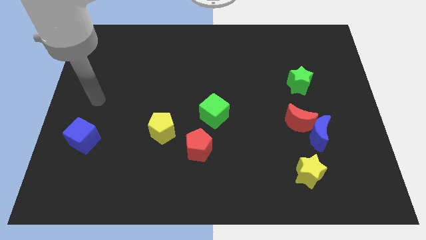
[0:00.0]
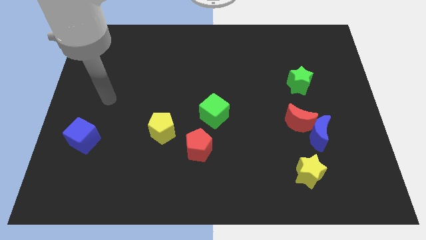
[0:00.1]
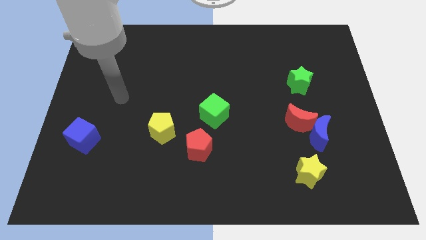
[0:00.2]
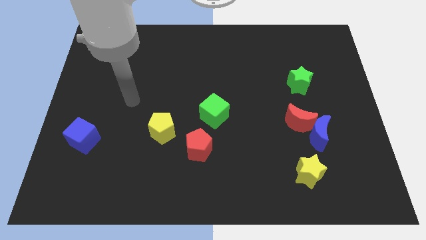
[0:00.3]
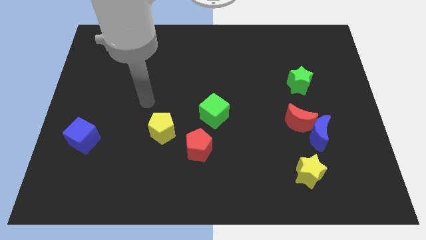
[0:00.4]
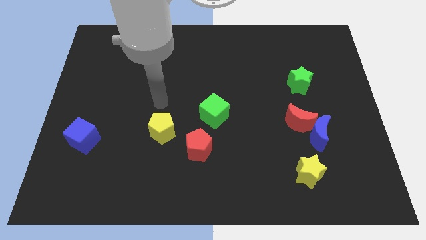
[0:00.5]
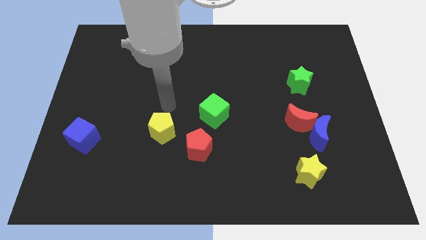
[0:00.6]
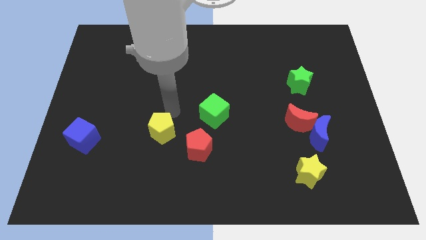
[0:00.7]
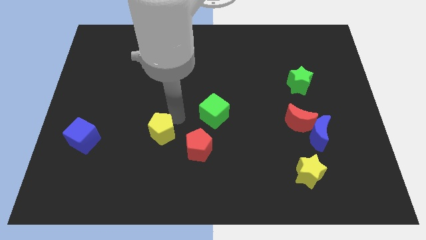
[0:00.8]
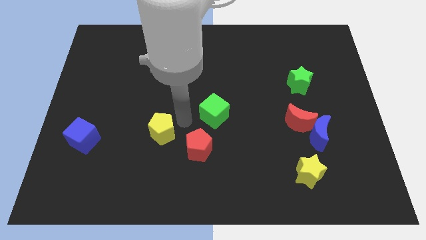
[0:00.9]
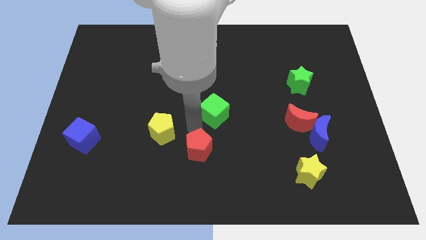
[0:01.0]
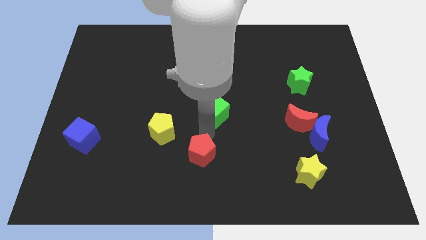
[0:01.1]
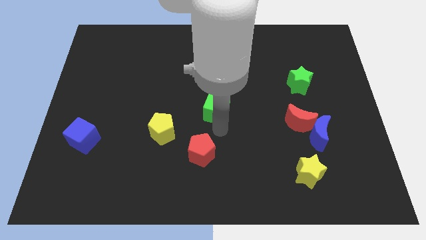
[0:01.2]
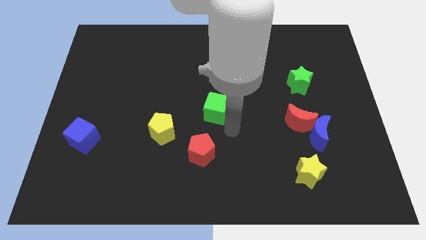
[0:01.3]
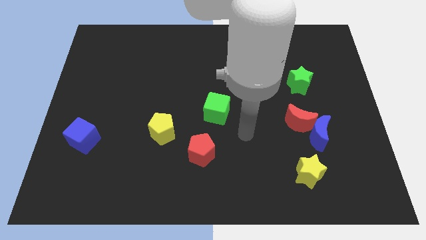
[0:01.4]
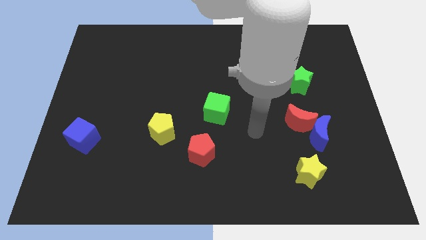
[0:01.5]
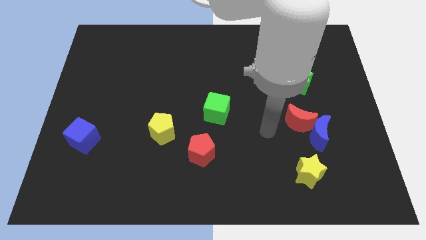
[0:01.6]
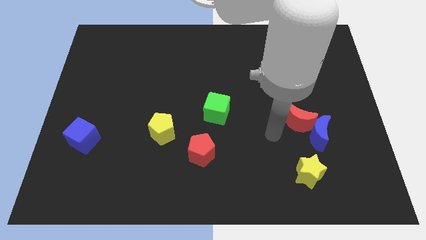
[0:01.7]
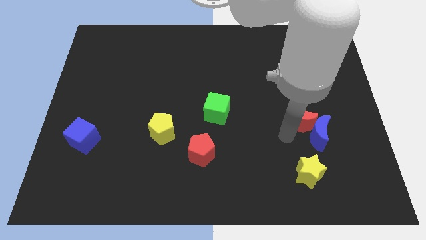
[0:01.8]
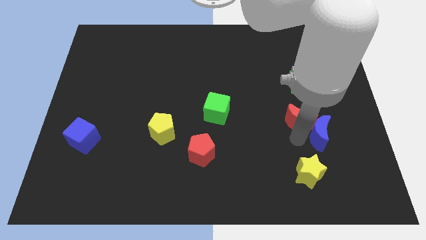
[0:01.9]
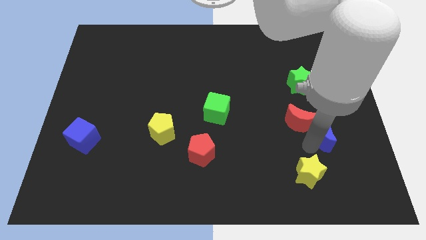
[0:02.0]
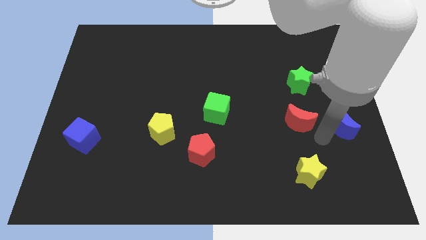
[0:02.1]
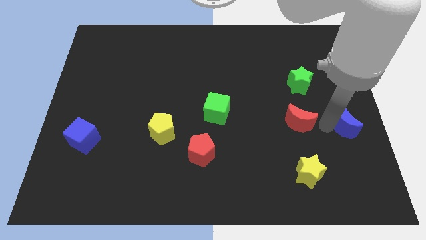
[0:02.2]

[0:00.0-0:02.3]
move the red moon away from the blue moon

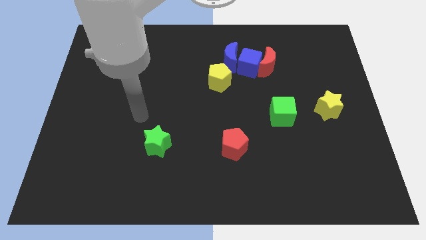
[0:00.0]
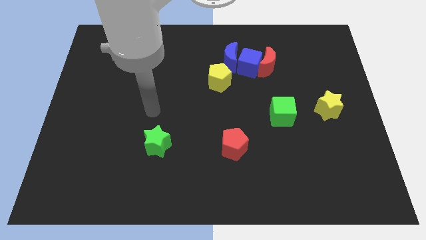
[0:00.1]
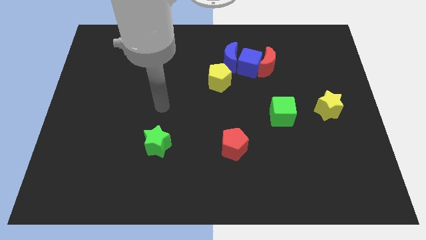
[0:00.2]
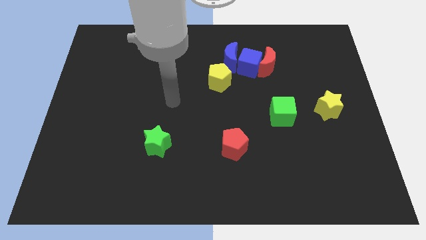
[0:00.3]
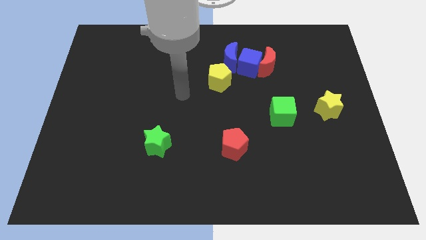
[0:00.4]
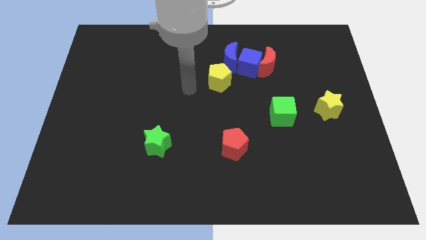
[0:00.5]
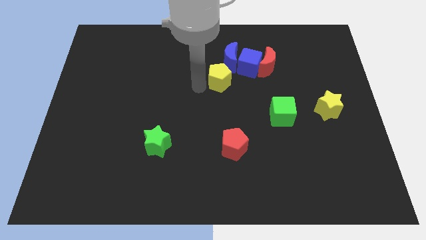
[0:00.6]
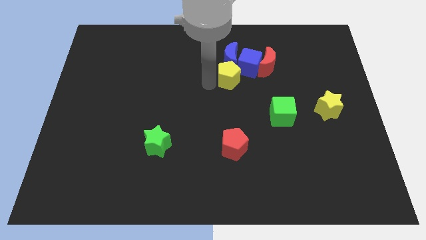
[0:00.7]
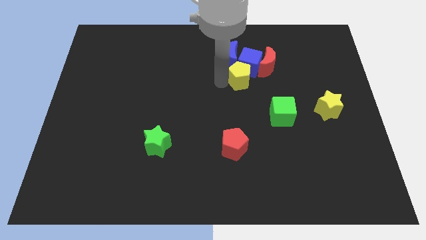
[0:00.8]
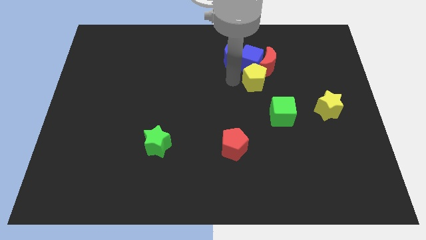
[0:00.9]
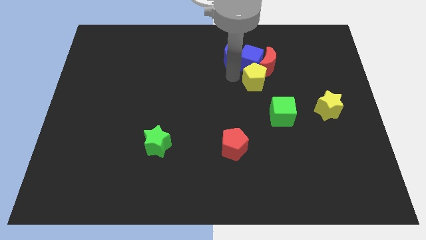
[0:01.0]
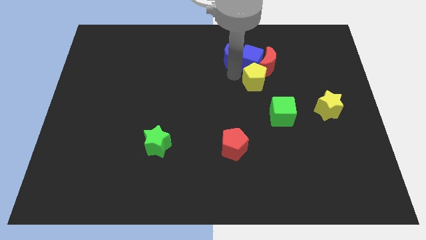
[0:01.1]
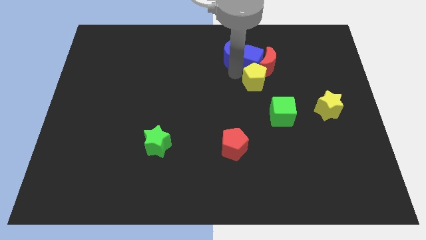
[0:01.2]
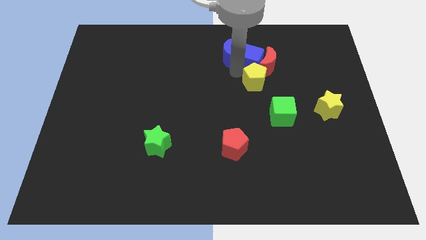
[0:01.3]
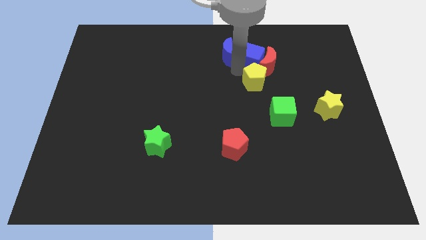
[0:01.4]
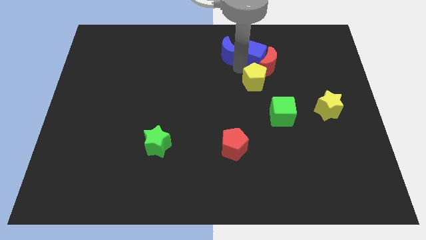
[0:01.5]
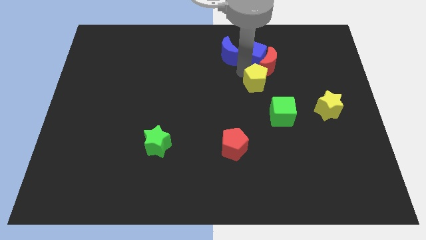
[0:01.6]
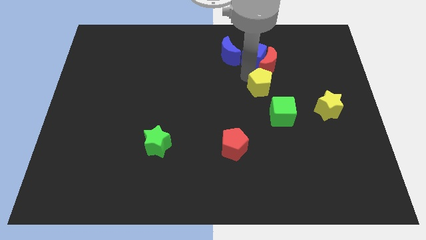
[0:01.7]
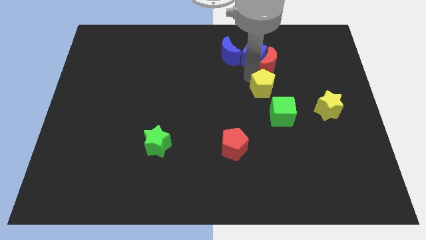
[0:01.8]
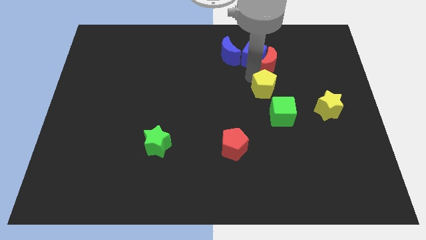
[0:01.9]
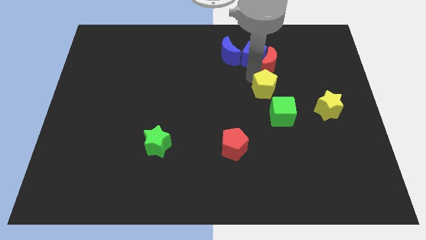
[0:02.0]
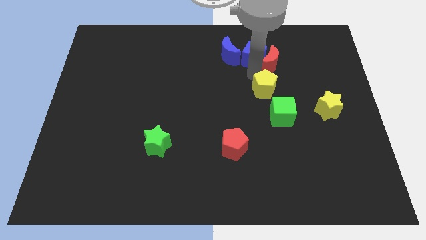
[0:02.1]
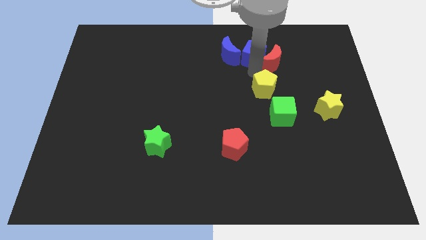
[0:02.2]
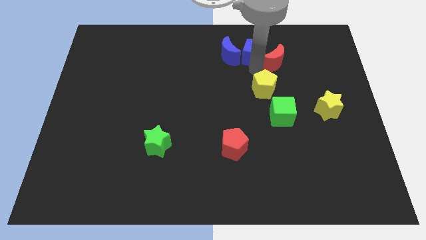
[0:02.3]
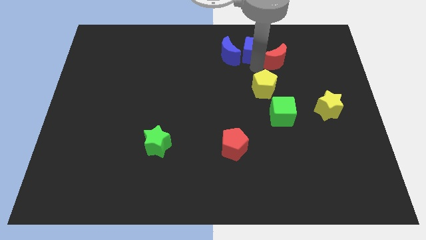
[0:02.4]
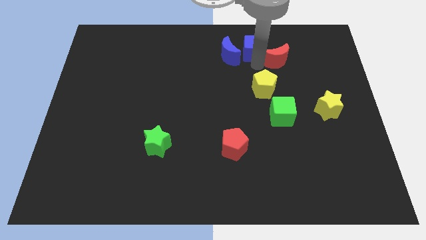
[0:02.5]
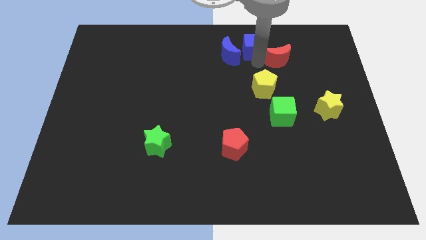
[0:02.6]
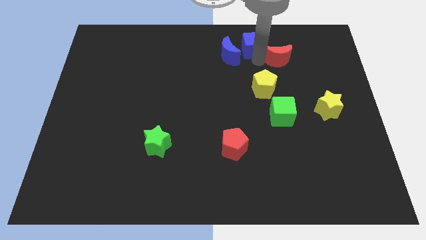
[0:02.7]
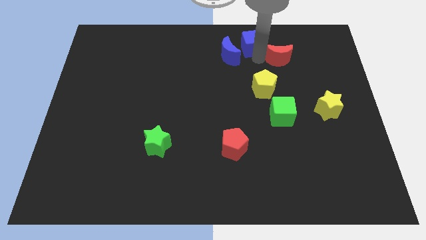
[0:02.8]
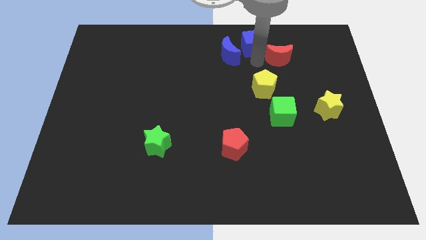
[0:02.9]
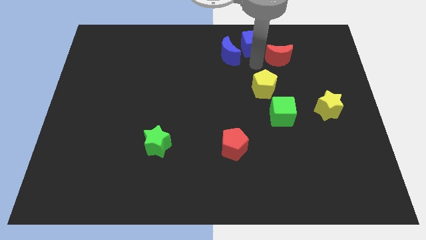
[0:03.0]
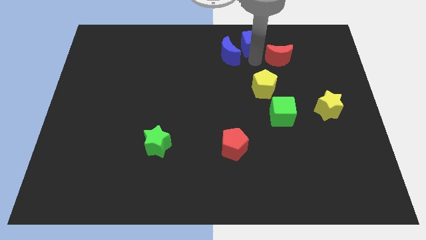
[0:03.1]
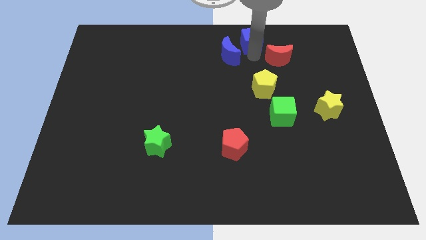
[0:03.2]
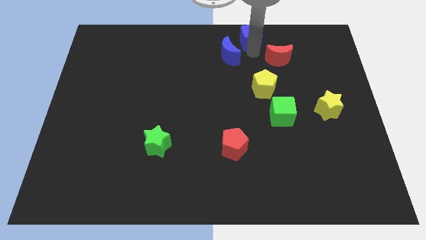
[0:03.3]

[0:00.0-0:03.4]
pull the blue cube apart from the red moon, blue moon, and yellow pentagon

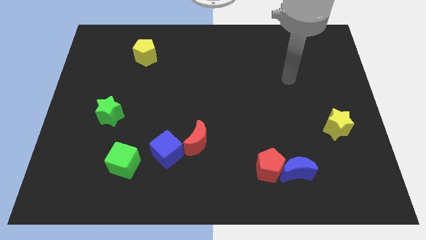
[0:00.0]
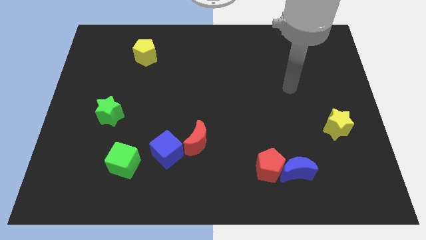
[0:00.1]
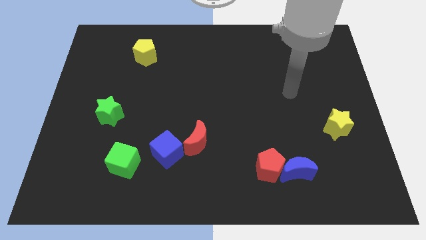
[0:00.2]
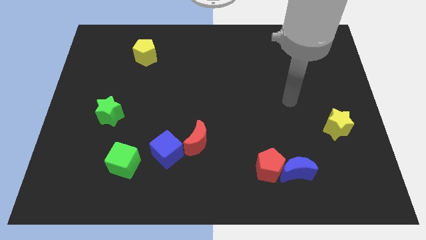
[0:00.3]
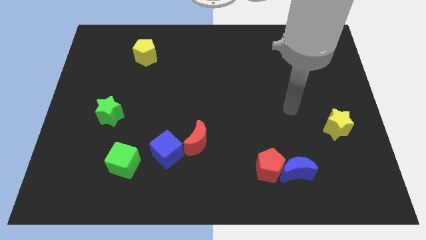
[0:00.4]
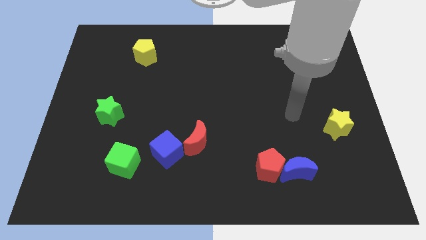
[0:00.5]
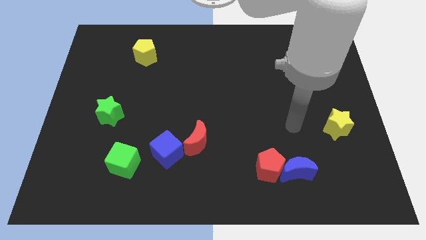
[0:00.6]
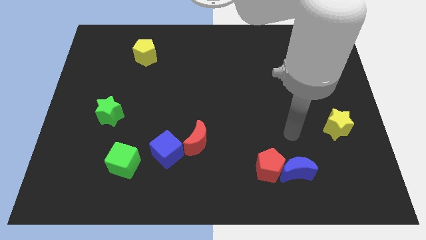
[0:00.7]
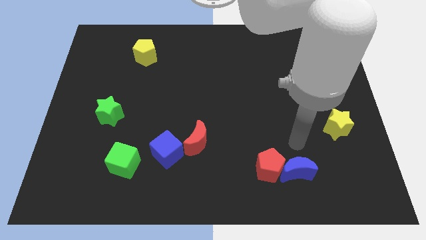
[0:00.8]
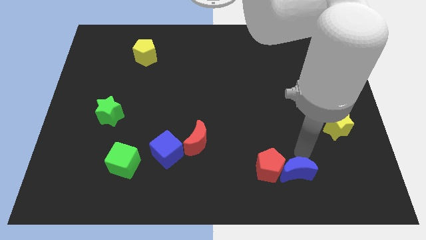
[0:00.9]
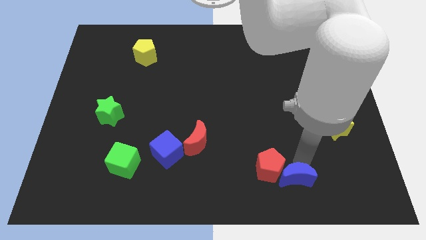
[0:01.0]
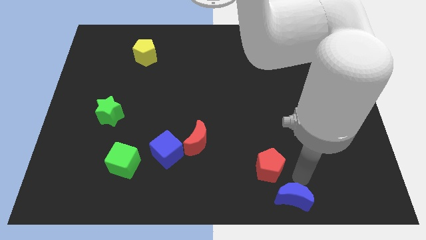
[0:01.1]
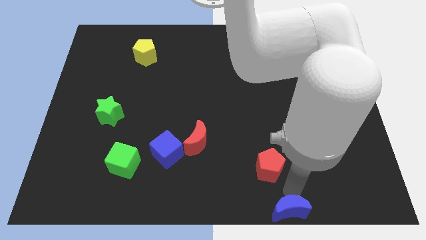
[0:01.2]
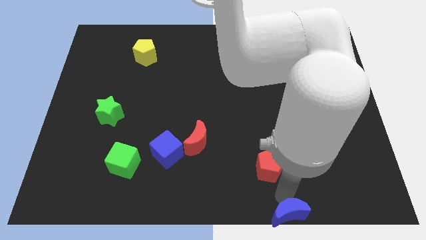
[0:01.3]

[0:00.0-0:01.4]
pull the red pentagon apart from the blue moon

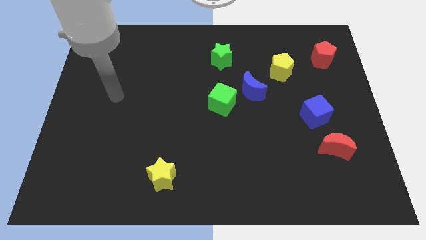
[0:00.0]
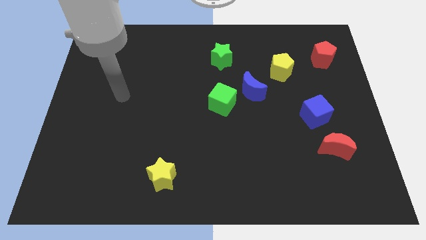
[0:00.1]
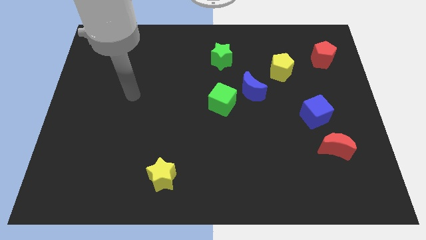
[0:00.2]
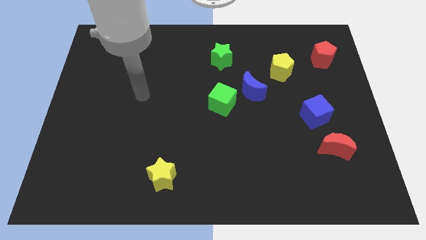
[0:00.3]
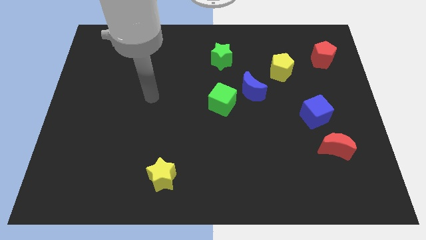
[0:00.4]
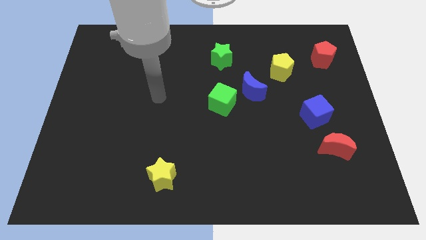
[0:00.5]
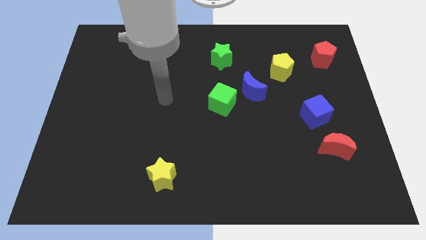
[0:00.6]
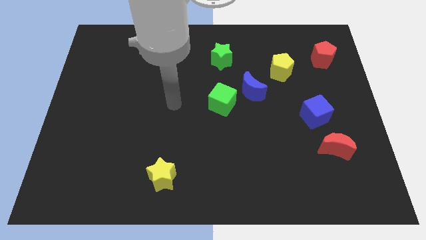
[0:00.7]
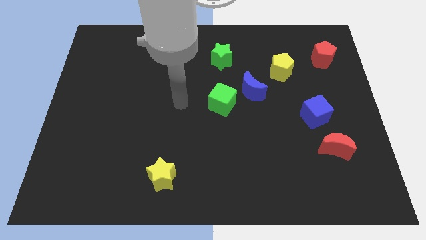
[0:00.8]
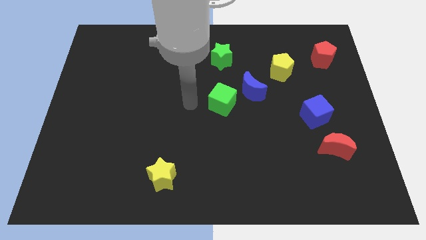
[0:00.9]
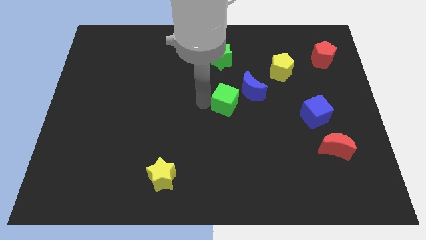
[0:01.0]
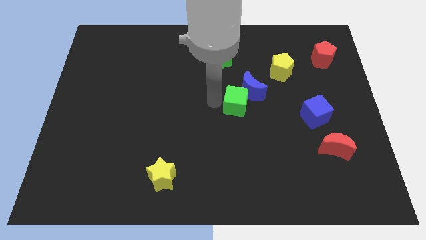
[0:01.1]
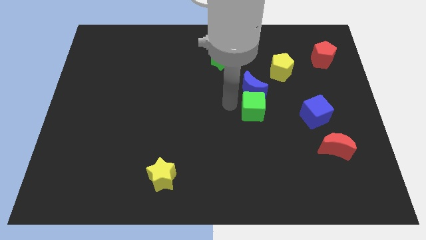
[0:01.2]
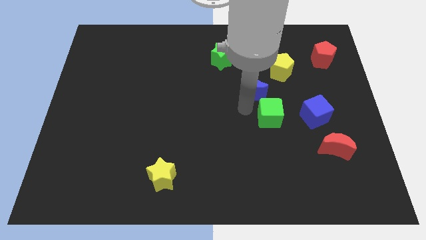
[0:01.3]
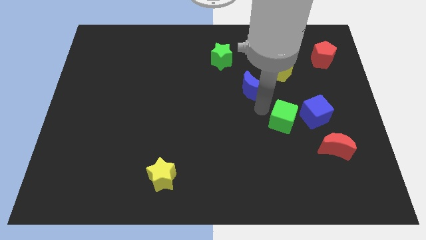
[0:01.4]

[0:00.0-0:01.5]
pull the blue moon apart from the green cube

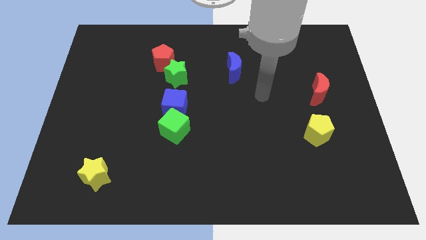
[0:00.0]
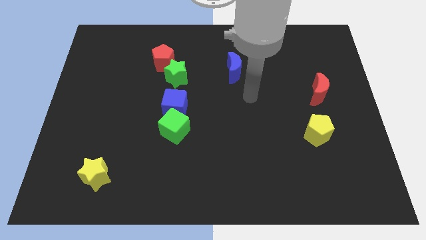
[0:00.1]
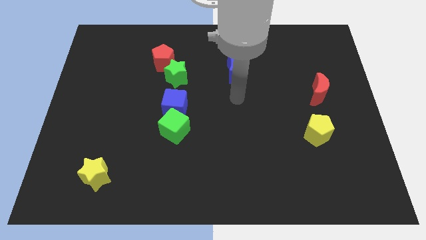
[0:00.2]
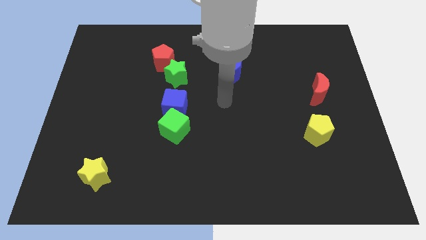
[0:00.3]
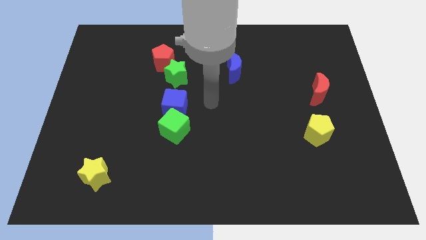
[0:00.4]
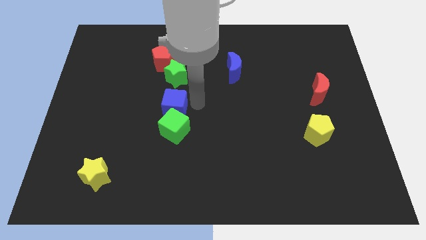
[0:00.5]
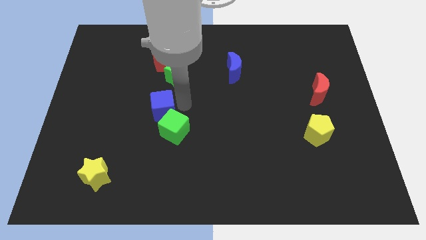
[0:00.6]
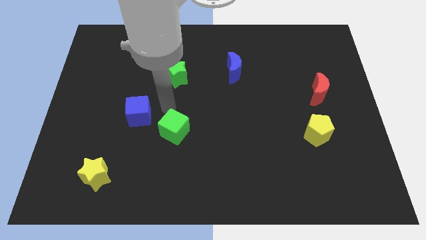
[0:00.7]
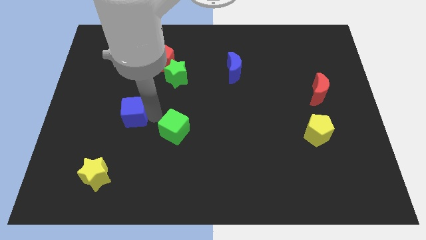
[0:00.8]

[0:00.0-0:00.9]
move the green cube away from the blue cube
